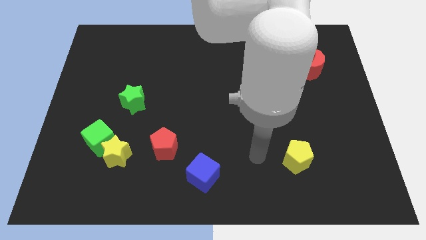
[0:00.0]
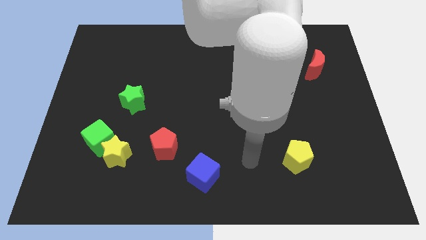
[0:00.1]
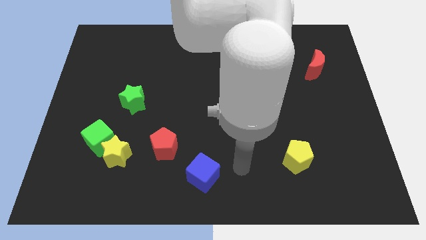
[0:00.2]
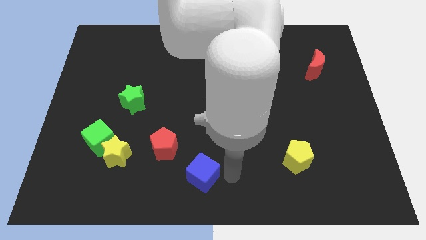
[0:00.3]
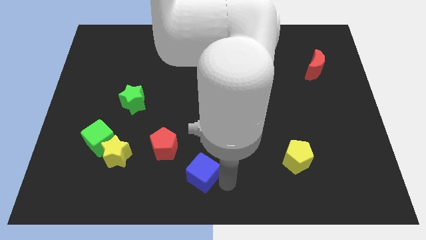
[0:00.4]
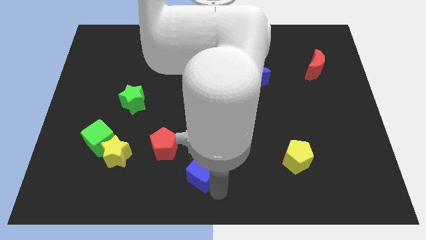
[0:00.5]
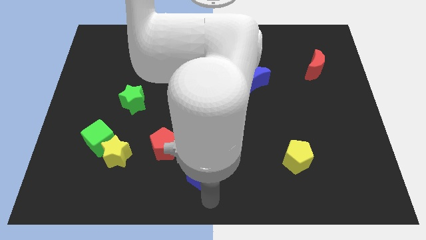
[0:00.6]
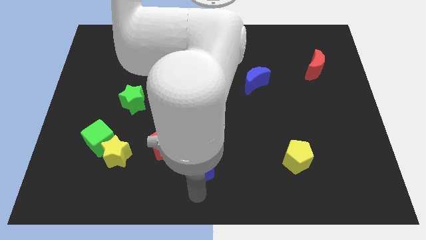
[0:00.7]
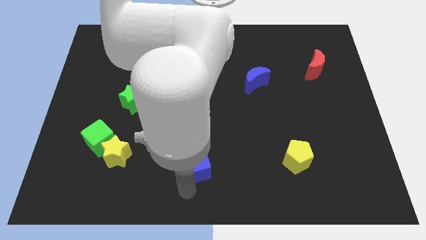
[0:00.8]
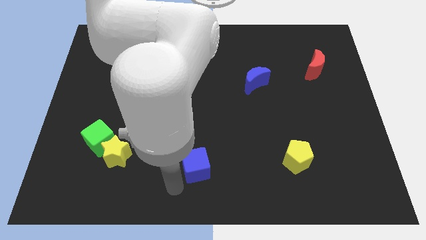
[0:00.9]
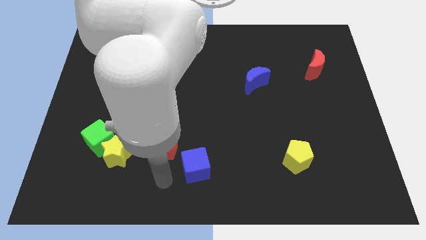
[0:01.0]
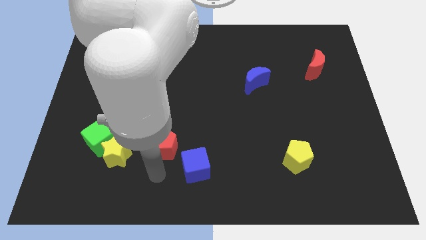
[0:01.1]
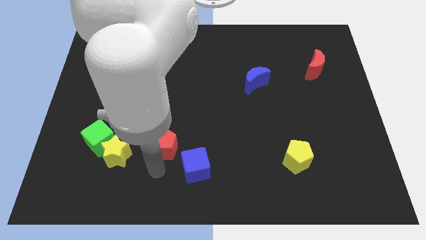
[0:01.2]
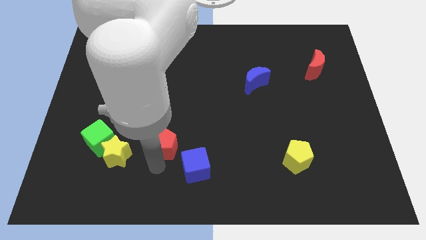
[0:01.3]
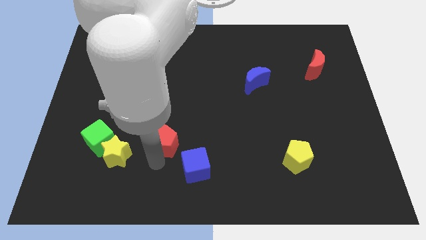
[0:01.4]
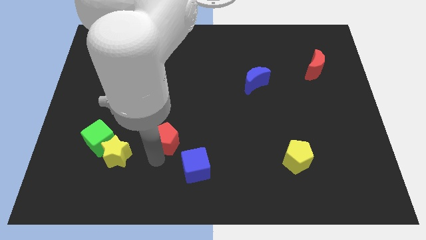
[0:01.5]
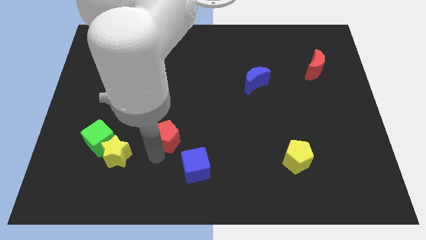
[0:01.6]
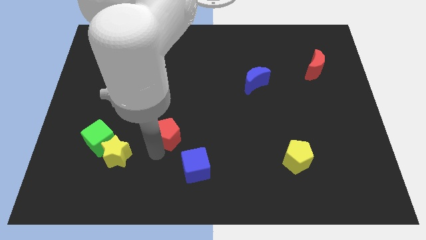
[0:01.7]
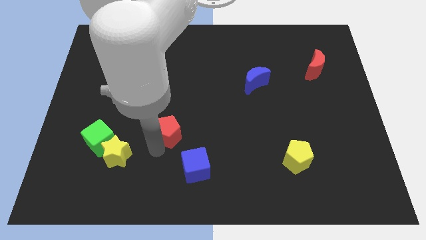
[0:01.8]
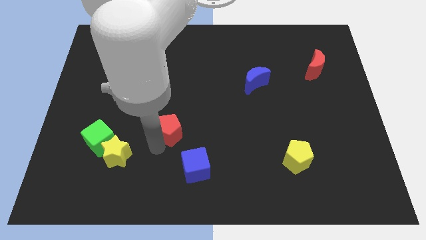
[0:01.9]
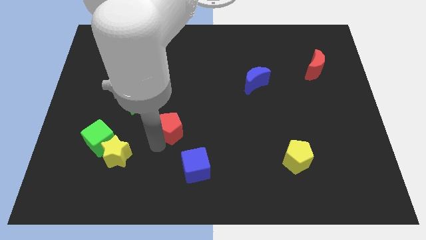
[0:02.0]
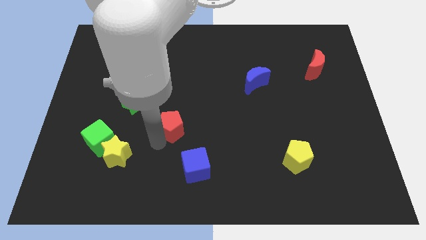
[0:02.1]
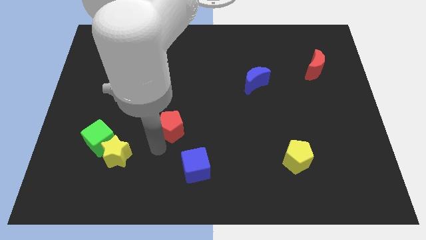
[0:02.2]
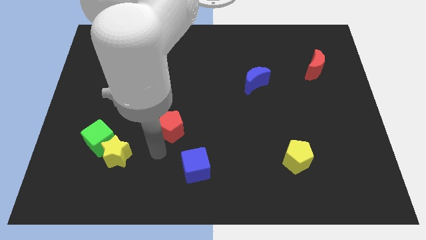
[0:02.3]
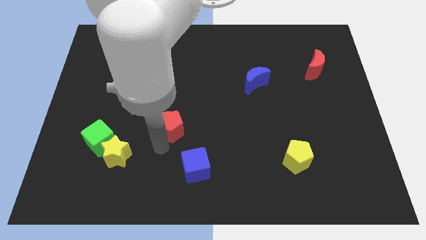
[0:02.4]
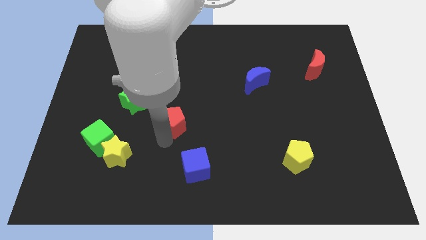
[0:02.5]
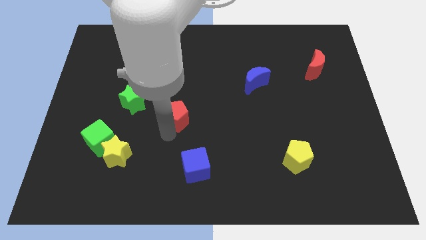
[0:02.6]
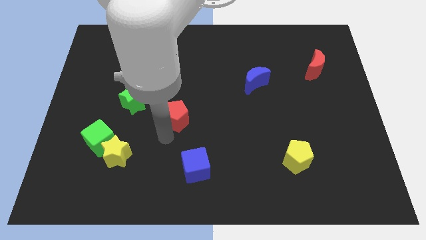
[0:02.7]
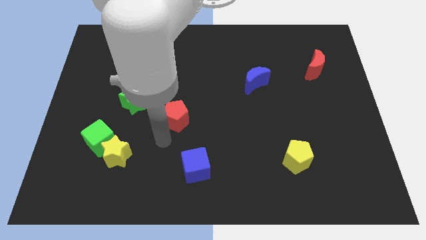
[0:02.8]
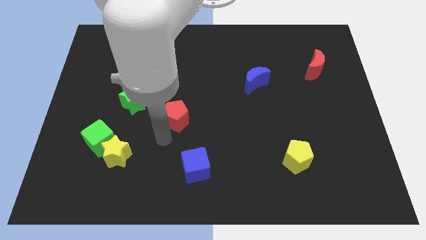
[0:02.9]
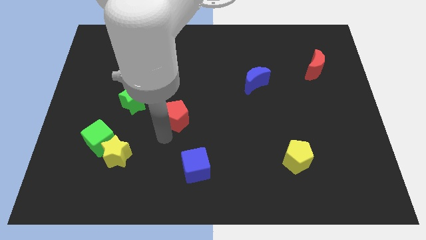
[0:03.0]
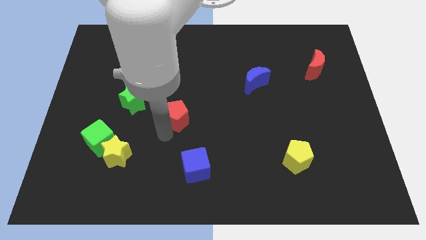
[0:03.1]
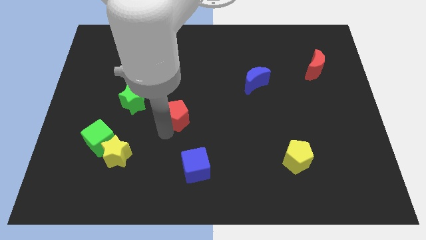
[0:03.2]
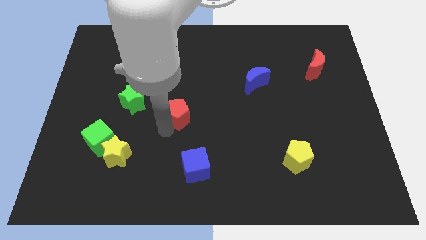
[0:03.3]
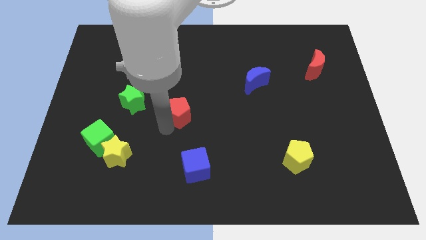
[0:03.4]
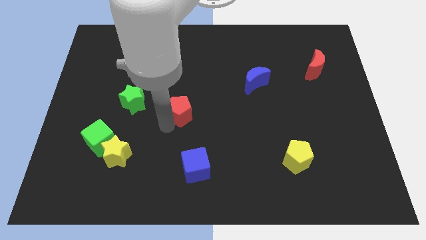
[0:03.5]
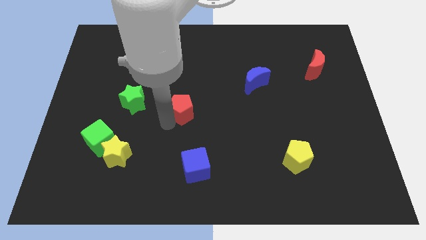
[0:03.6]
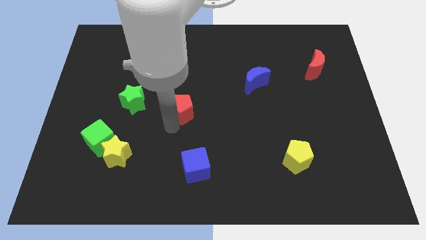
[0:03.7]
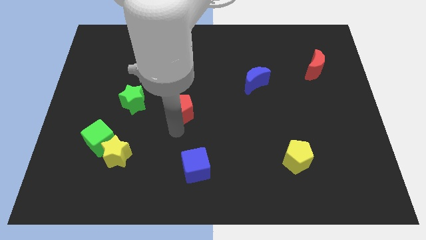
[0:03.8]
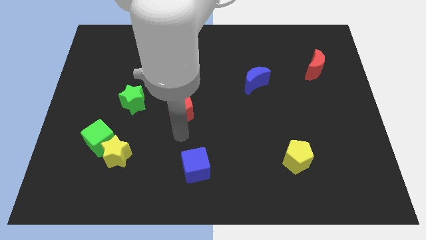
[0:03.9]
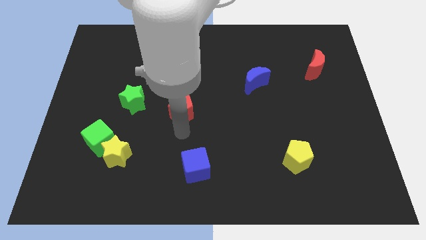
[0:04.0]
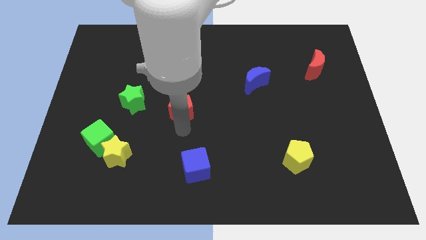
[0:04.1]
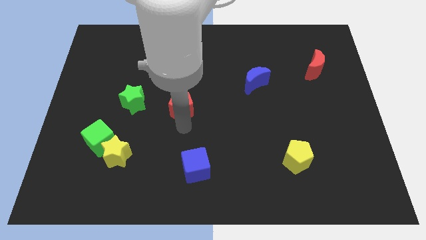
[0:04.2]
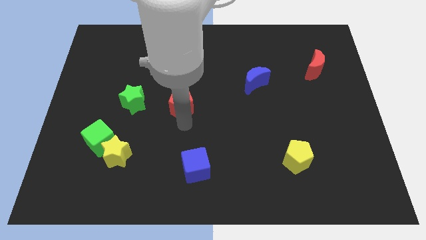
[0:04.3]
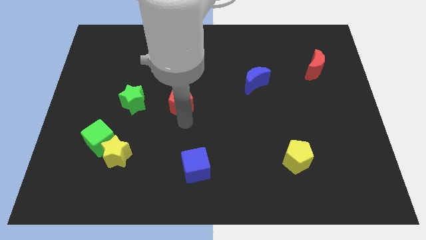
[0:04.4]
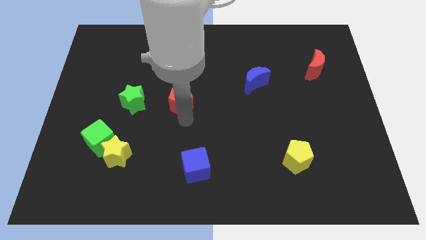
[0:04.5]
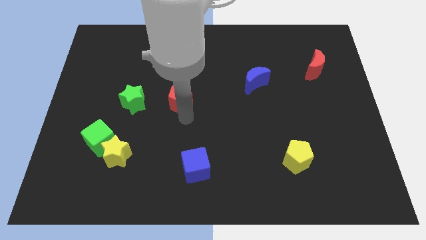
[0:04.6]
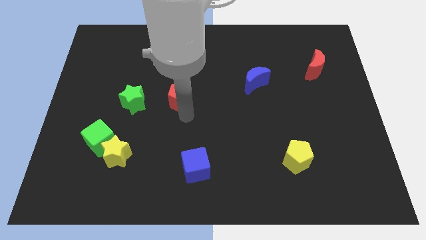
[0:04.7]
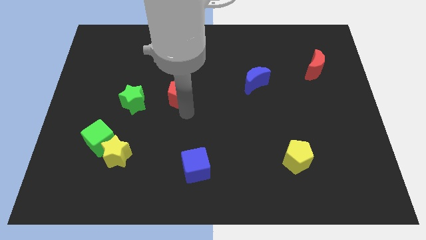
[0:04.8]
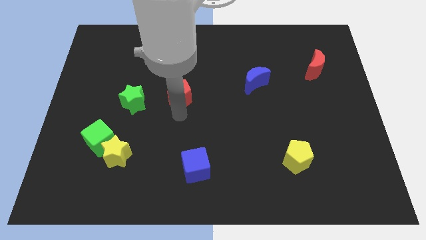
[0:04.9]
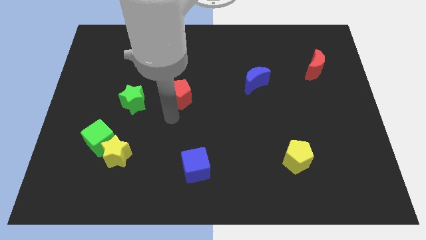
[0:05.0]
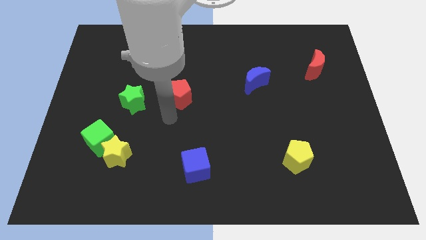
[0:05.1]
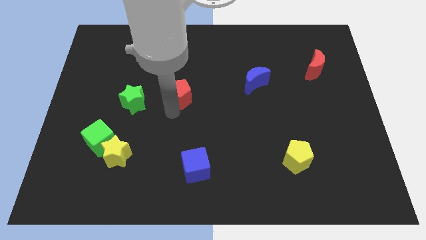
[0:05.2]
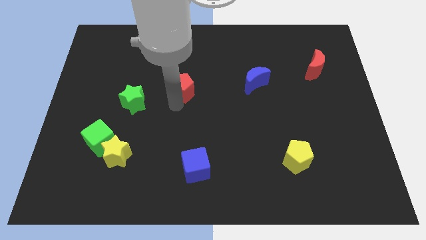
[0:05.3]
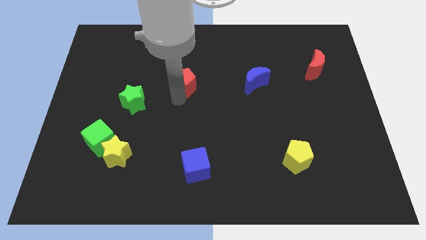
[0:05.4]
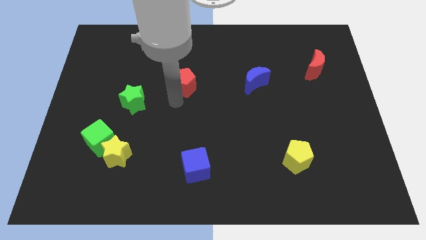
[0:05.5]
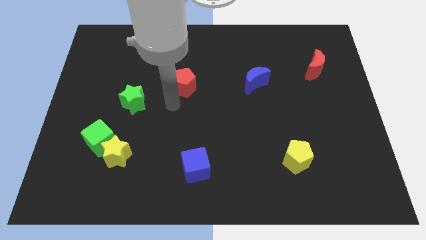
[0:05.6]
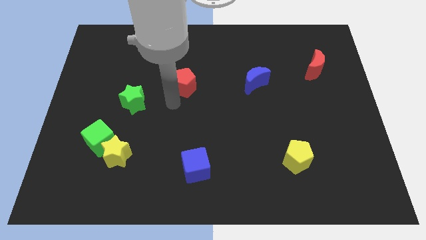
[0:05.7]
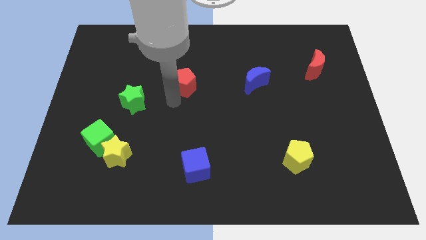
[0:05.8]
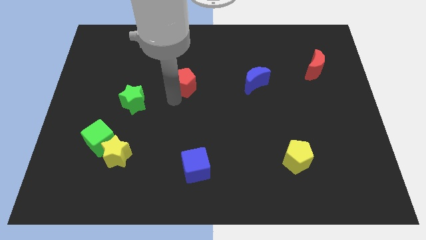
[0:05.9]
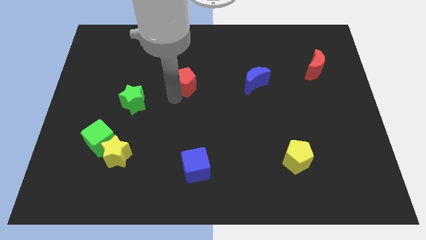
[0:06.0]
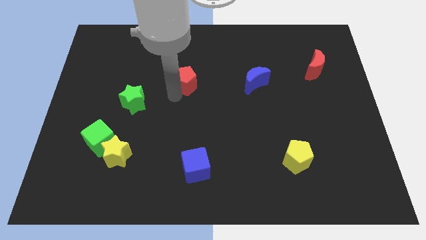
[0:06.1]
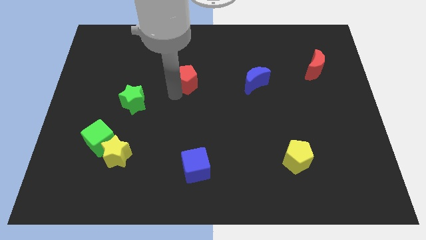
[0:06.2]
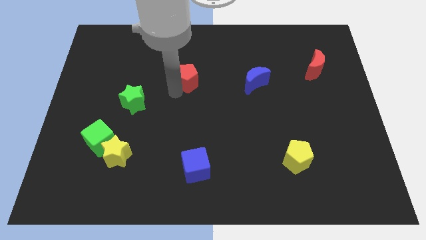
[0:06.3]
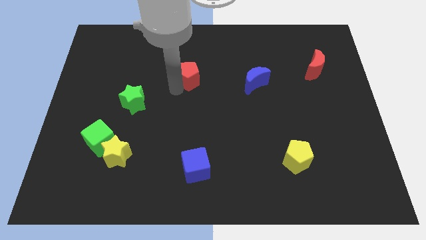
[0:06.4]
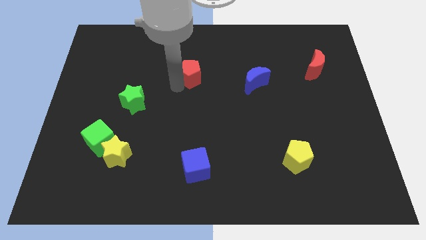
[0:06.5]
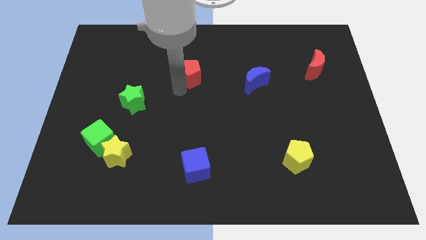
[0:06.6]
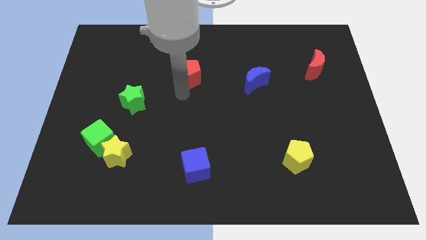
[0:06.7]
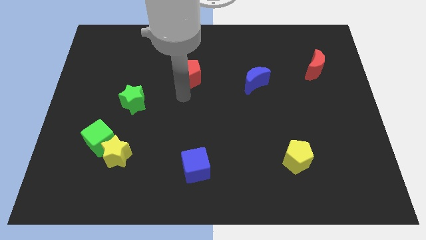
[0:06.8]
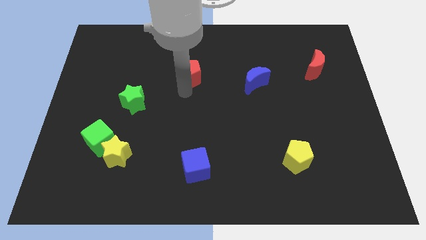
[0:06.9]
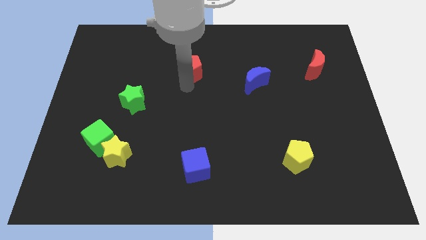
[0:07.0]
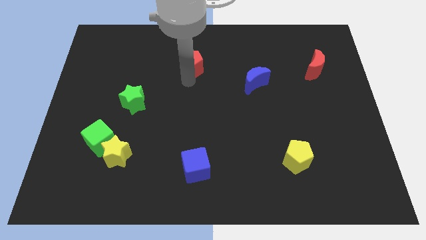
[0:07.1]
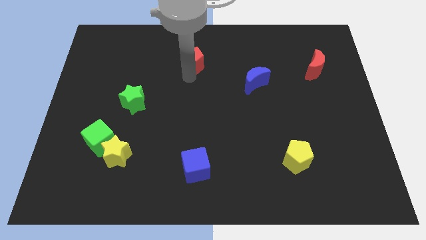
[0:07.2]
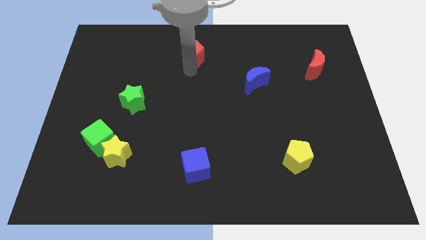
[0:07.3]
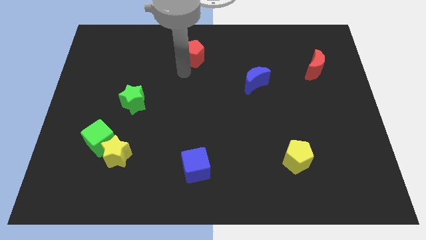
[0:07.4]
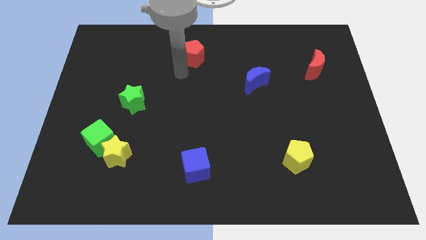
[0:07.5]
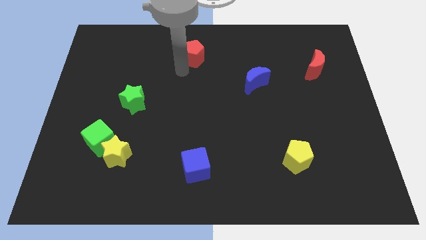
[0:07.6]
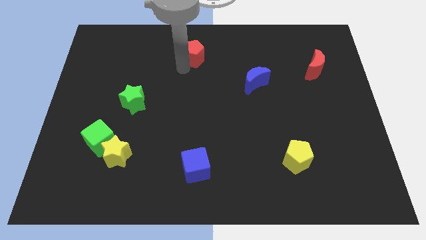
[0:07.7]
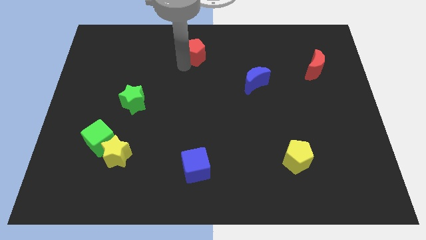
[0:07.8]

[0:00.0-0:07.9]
slide the red pentagon to the towards your base

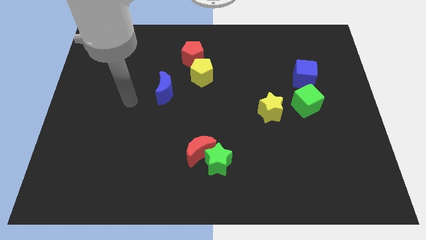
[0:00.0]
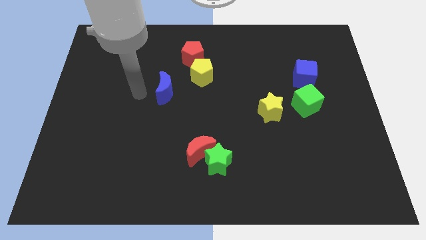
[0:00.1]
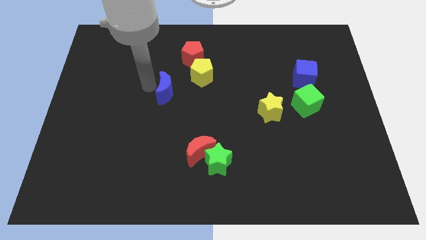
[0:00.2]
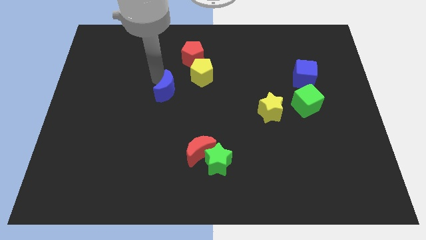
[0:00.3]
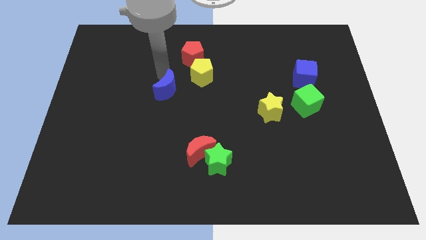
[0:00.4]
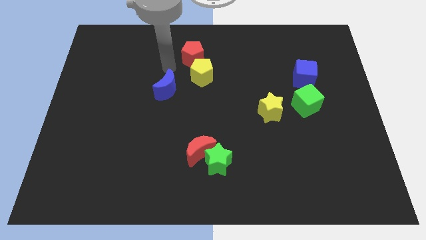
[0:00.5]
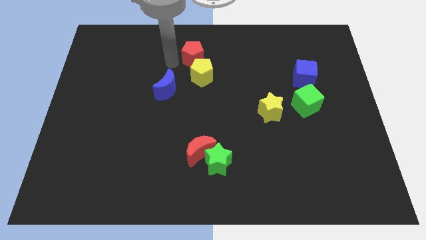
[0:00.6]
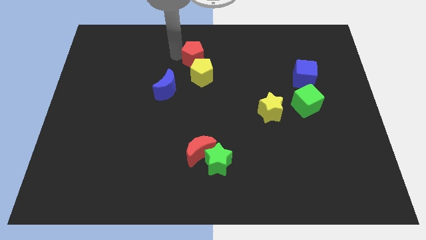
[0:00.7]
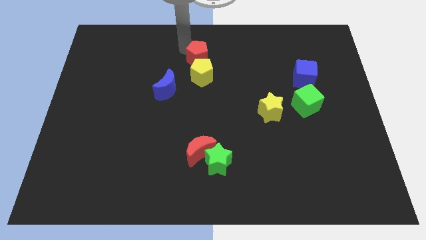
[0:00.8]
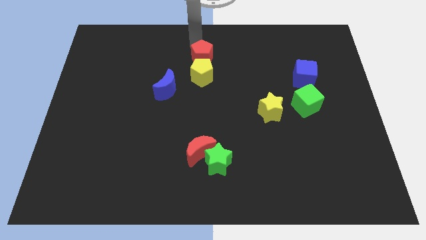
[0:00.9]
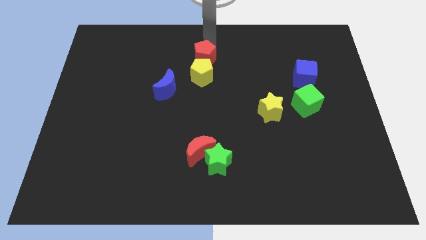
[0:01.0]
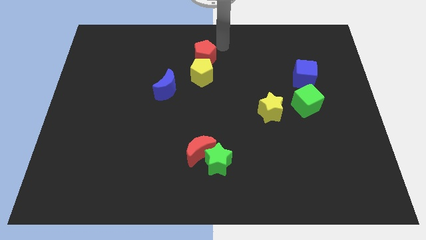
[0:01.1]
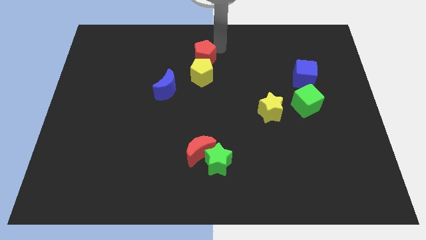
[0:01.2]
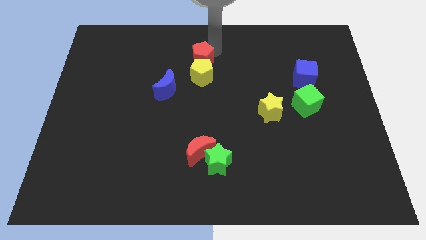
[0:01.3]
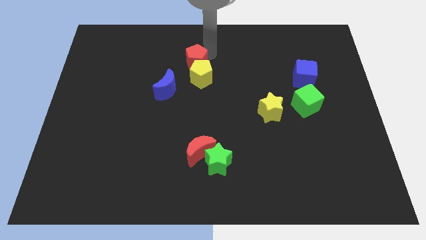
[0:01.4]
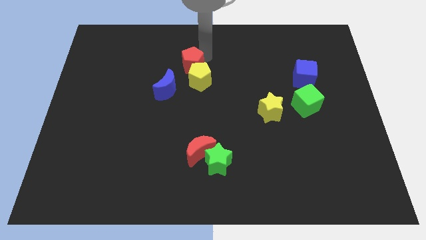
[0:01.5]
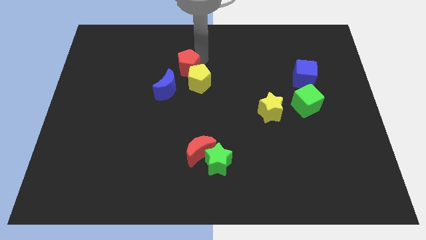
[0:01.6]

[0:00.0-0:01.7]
move the red pentagon to the center
